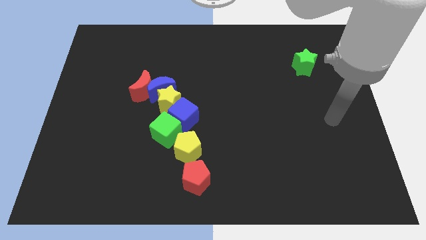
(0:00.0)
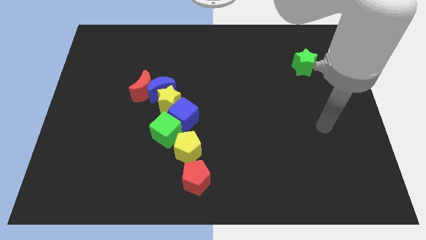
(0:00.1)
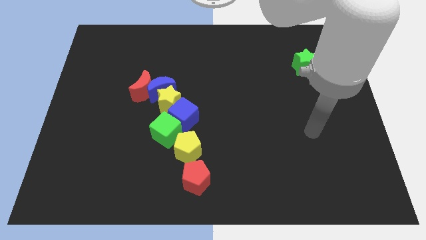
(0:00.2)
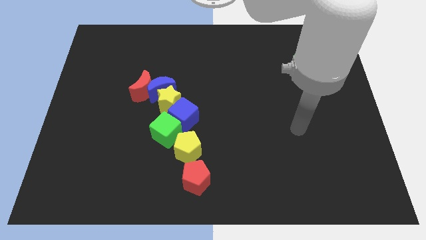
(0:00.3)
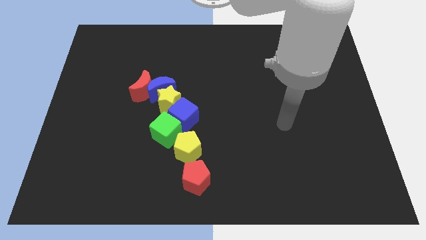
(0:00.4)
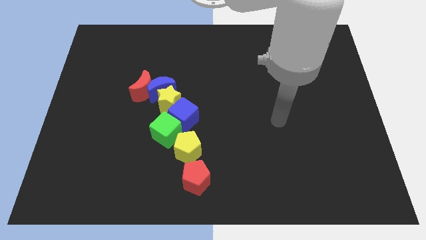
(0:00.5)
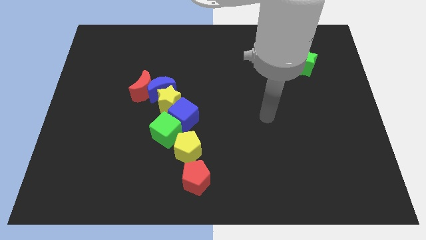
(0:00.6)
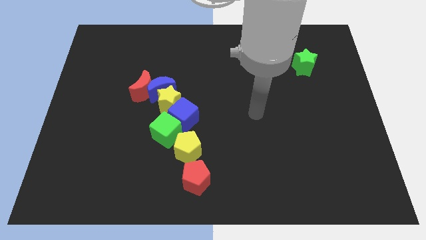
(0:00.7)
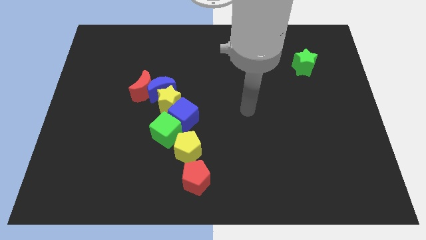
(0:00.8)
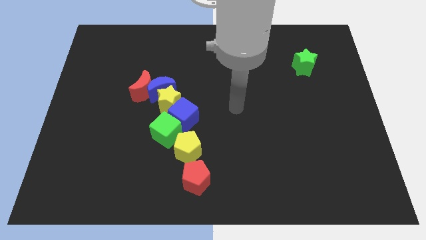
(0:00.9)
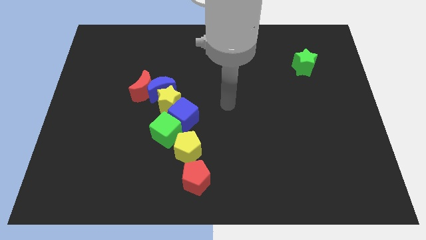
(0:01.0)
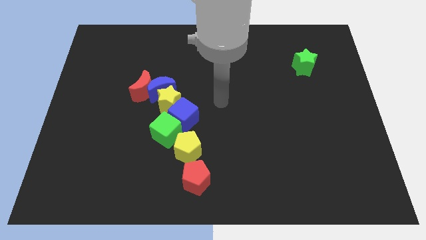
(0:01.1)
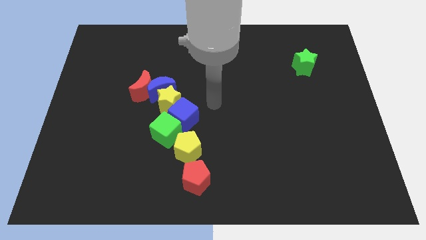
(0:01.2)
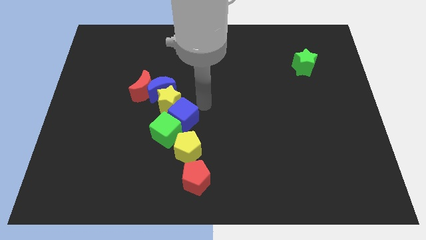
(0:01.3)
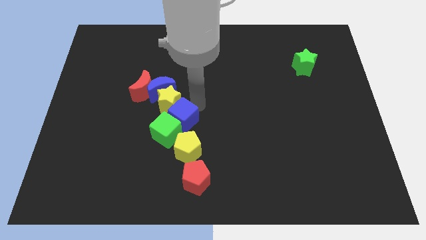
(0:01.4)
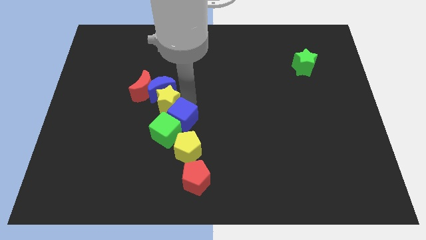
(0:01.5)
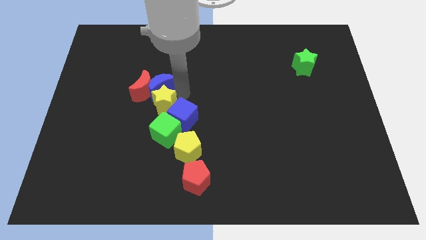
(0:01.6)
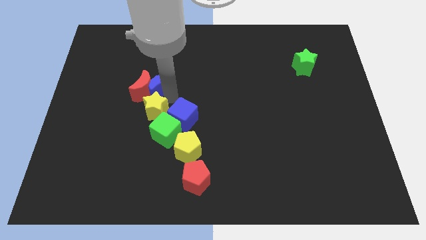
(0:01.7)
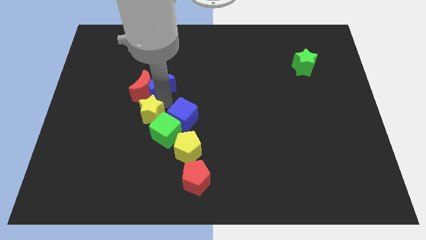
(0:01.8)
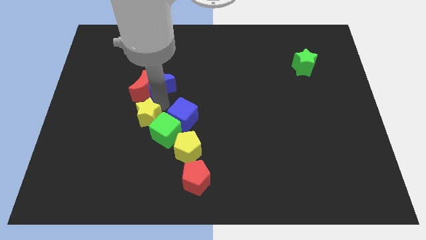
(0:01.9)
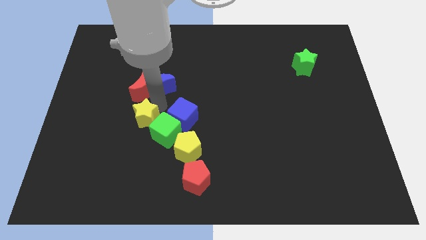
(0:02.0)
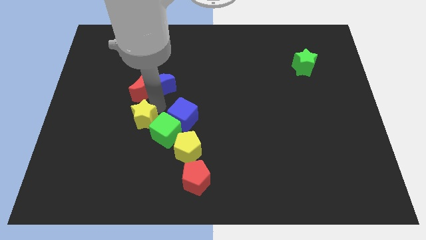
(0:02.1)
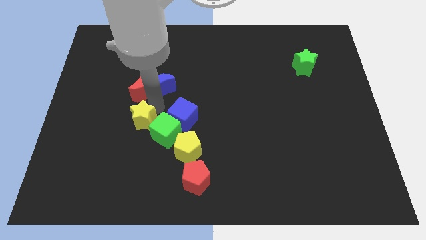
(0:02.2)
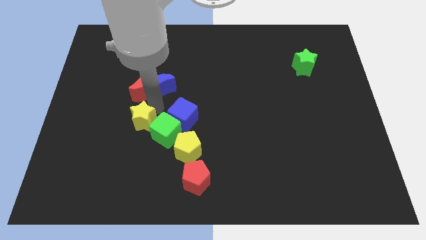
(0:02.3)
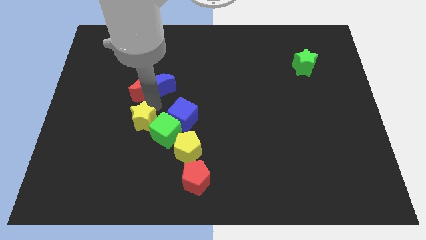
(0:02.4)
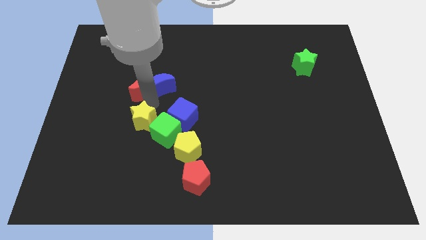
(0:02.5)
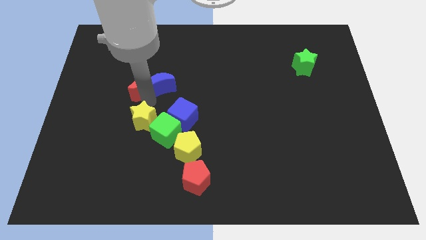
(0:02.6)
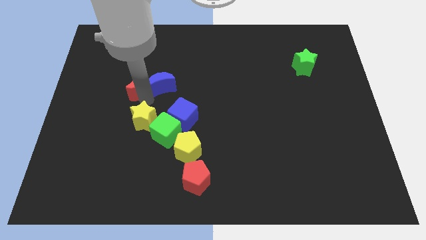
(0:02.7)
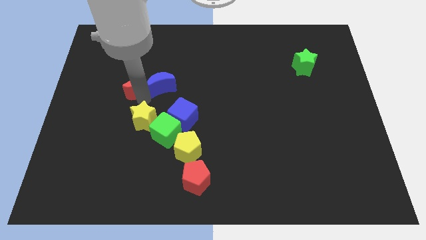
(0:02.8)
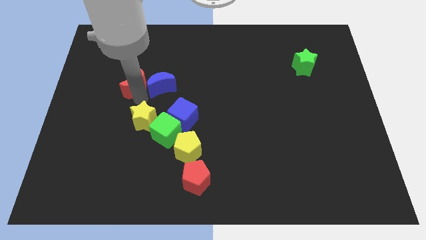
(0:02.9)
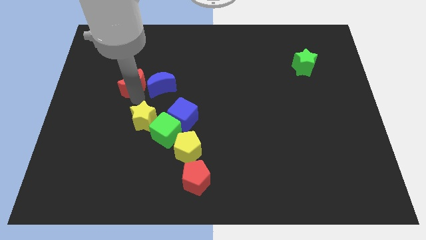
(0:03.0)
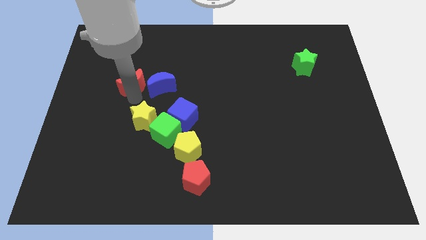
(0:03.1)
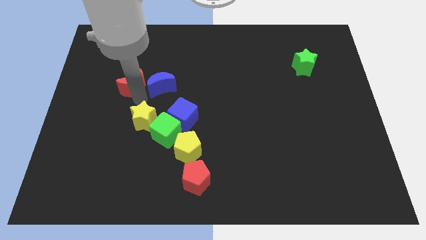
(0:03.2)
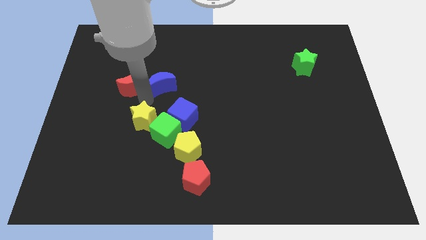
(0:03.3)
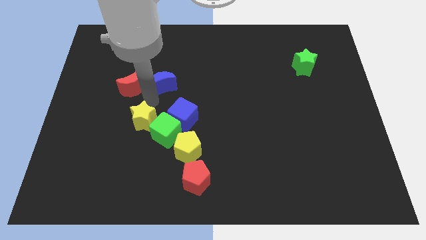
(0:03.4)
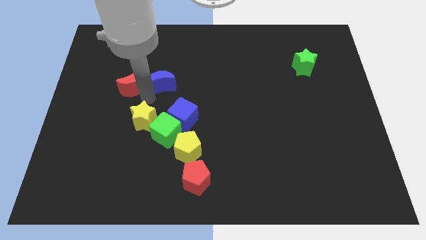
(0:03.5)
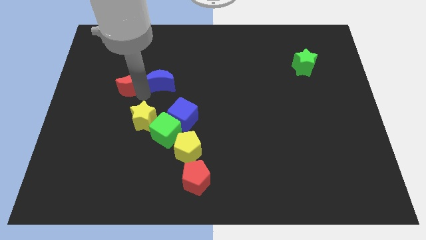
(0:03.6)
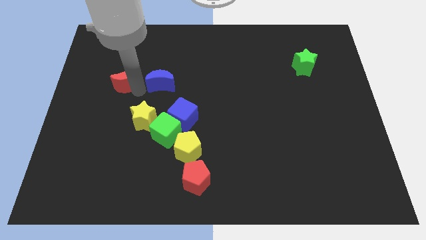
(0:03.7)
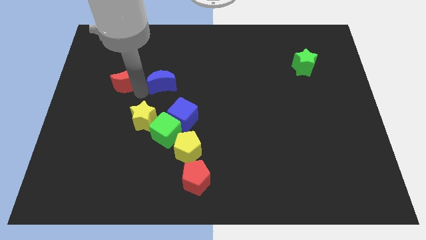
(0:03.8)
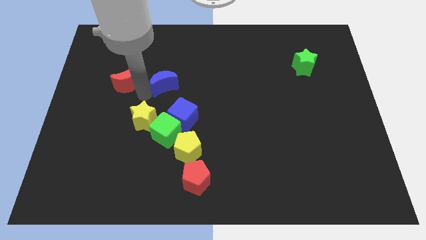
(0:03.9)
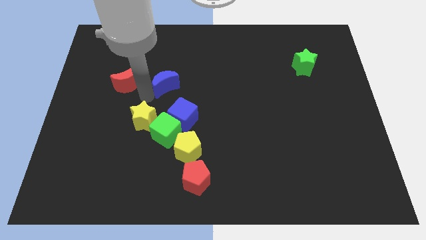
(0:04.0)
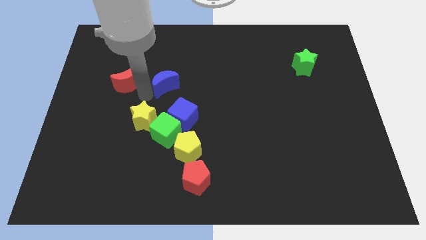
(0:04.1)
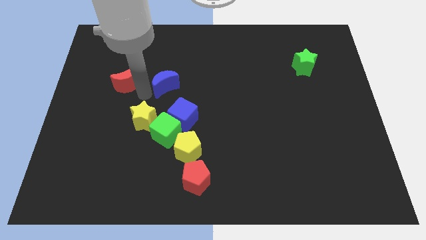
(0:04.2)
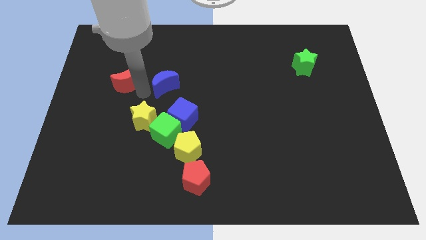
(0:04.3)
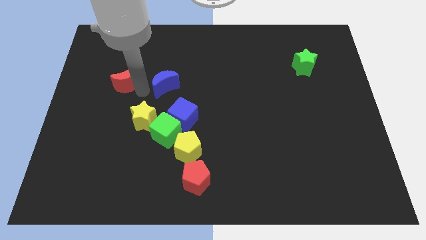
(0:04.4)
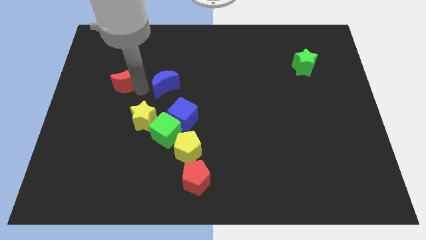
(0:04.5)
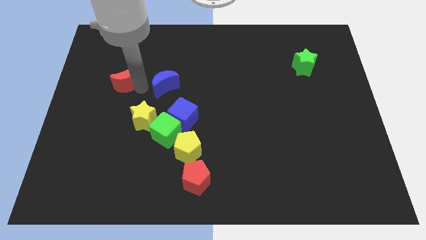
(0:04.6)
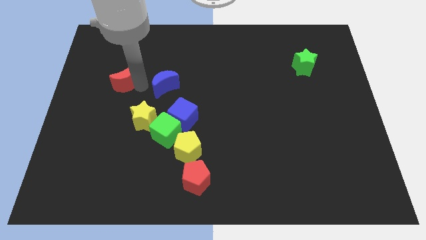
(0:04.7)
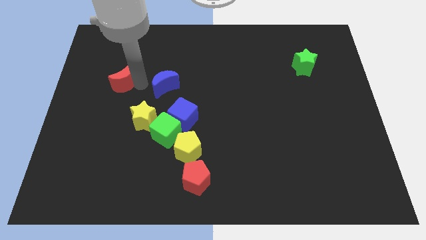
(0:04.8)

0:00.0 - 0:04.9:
move the red moon away from the blue moon and yellow star

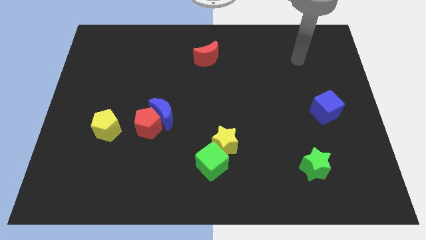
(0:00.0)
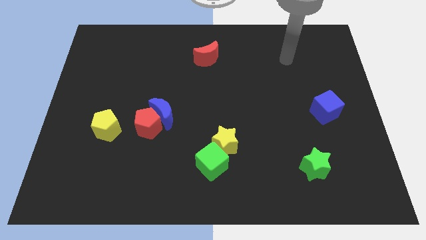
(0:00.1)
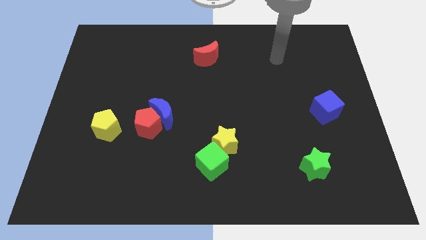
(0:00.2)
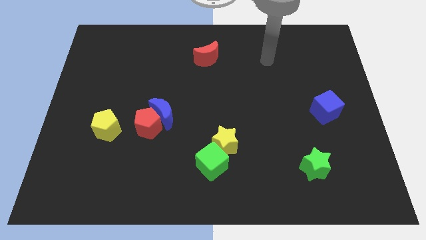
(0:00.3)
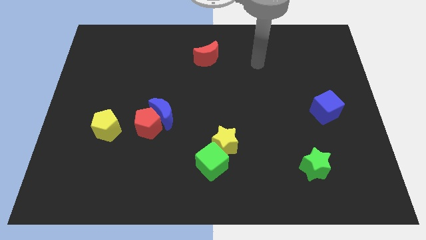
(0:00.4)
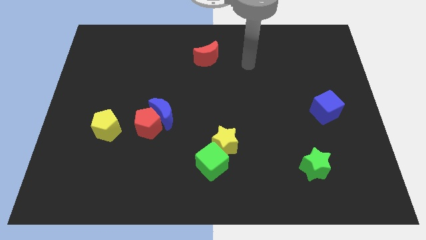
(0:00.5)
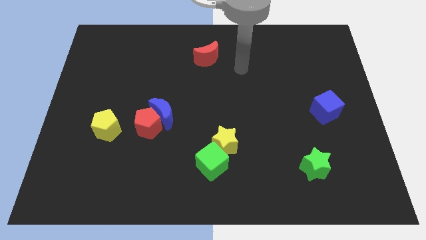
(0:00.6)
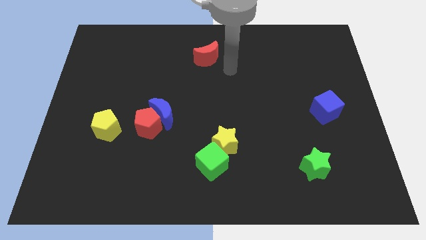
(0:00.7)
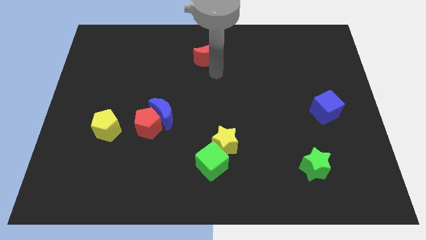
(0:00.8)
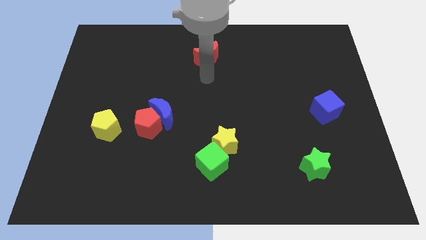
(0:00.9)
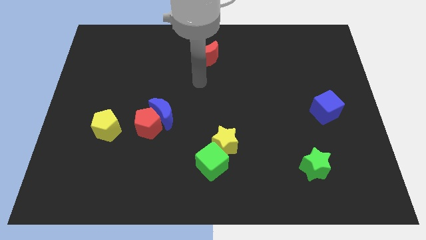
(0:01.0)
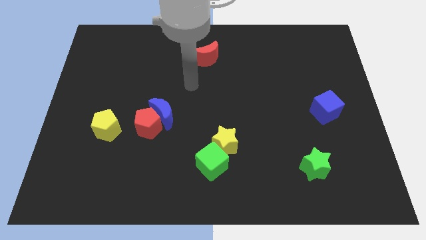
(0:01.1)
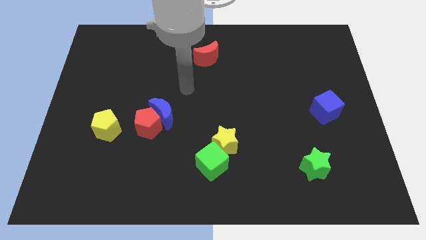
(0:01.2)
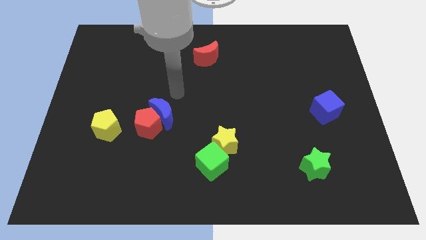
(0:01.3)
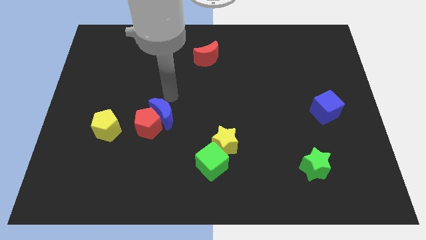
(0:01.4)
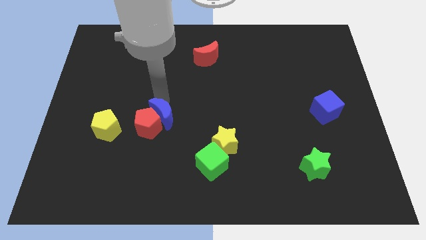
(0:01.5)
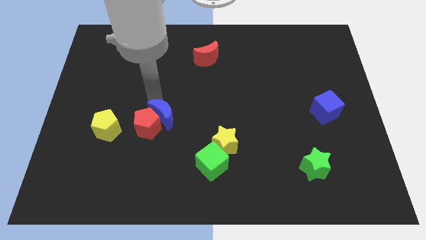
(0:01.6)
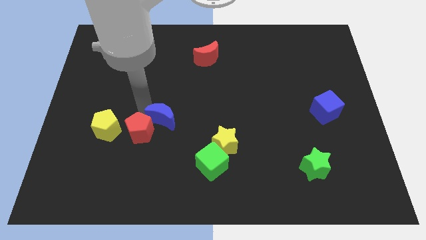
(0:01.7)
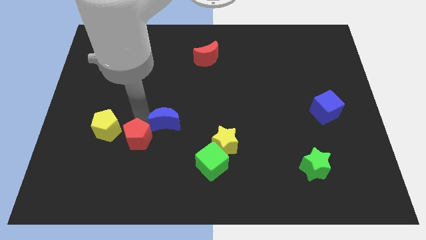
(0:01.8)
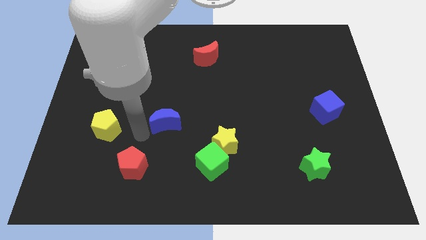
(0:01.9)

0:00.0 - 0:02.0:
pull the blue moon apart from the red pentagon

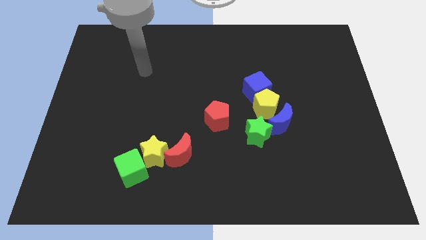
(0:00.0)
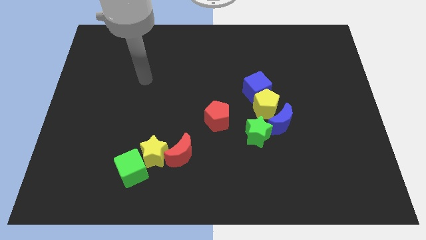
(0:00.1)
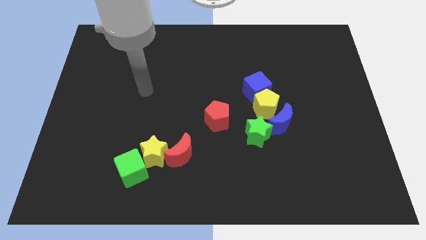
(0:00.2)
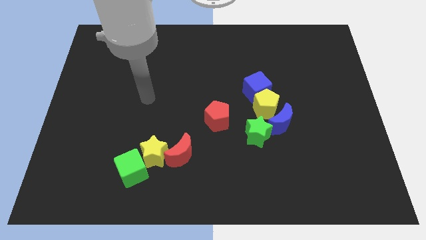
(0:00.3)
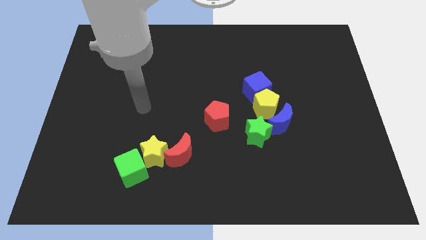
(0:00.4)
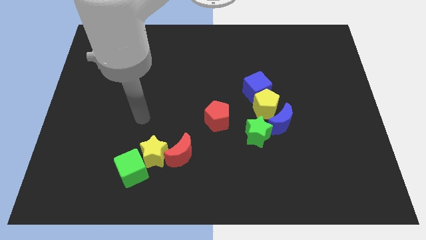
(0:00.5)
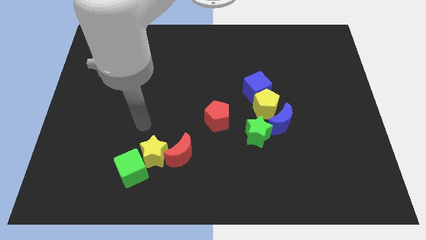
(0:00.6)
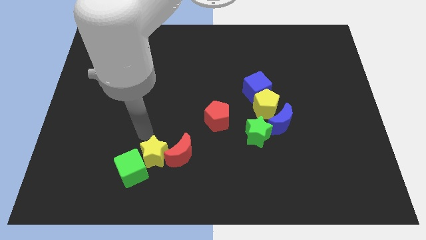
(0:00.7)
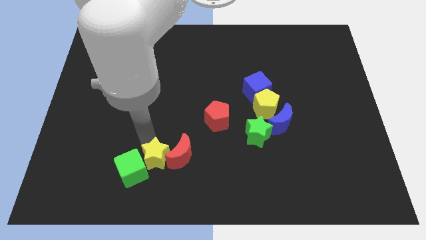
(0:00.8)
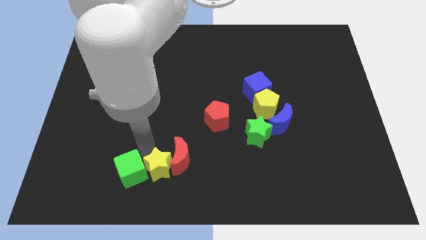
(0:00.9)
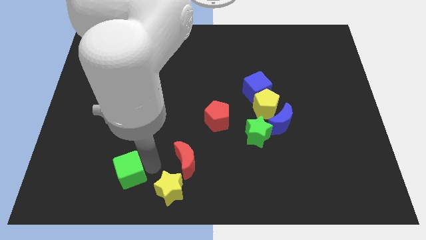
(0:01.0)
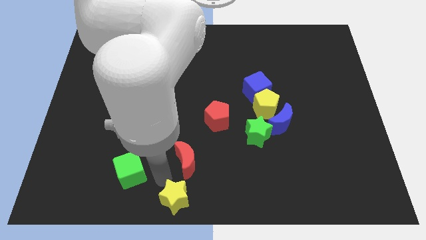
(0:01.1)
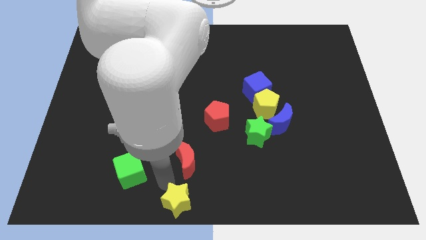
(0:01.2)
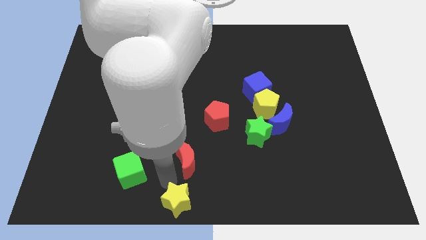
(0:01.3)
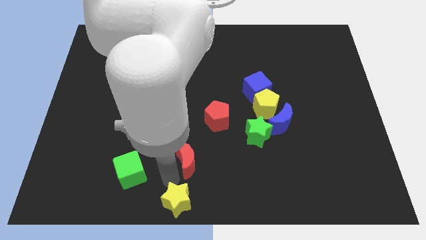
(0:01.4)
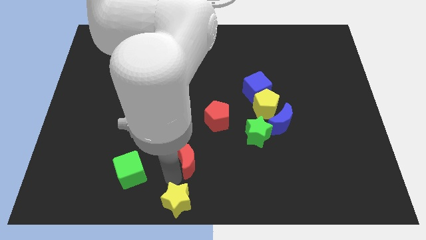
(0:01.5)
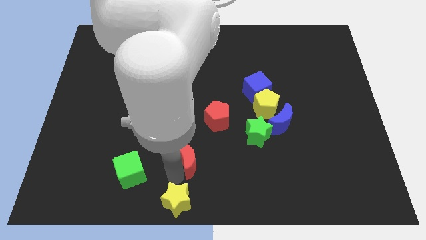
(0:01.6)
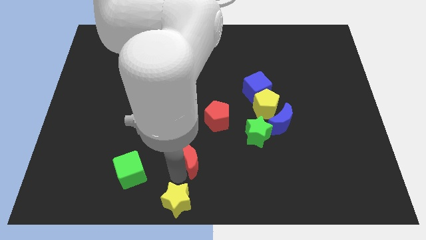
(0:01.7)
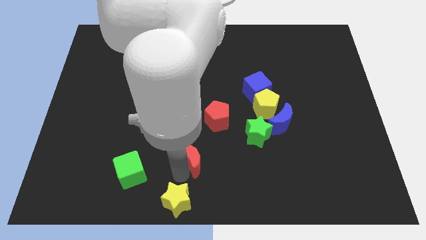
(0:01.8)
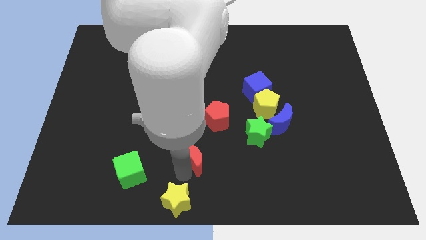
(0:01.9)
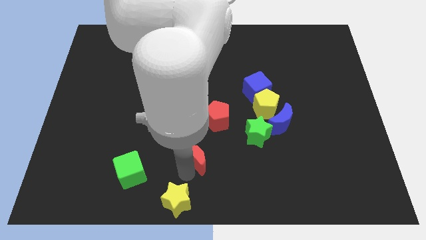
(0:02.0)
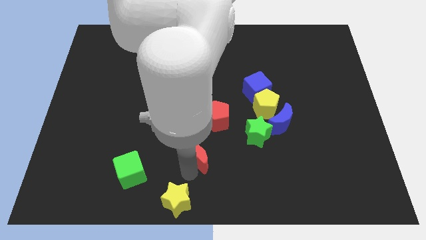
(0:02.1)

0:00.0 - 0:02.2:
move the red moon away from the yellow star

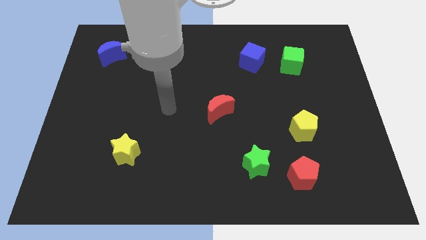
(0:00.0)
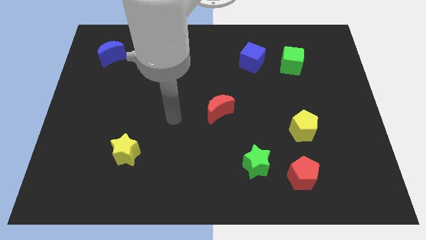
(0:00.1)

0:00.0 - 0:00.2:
move the red pentagon away from the green star
